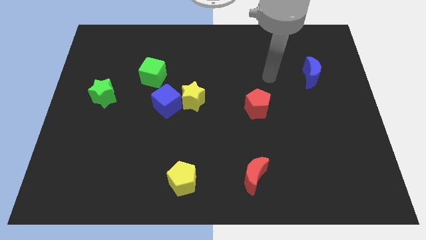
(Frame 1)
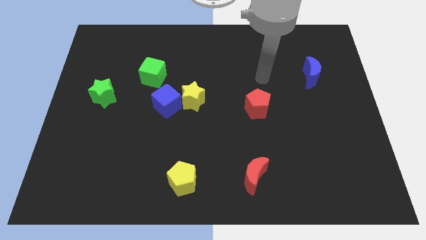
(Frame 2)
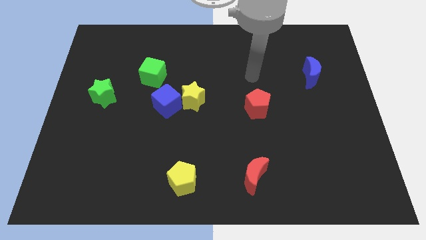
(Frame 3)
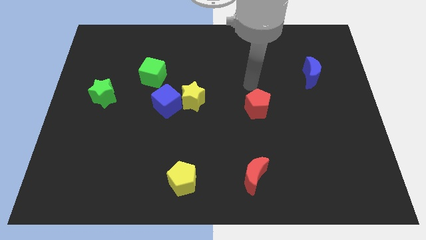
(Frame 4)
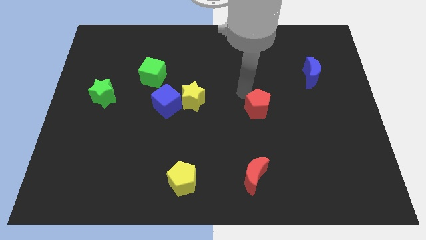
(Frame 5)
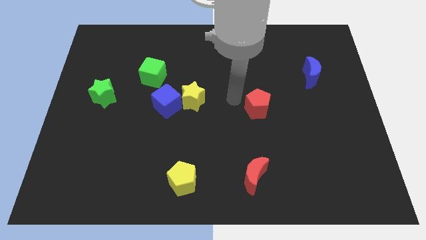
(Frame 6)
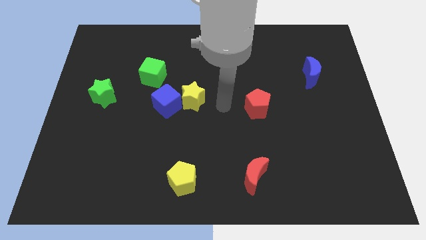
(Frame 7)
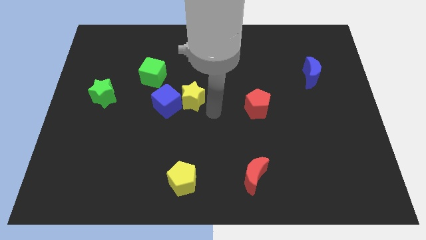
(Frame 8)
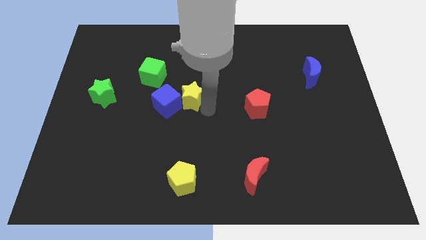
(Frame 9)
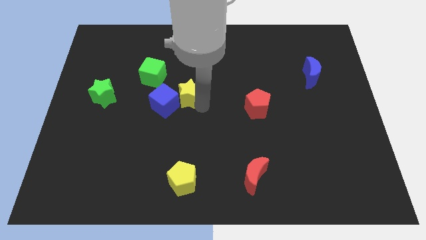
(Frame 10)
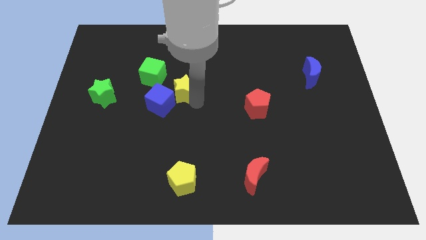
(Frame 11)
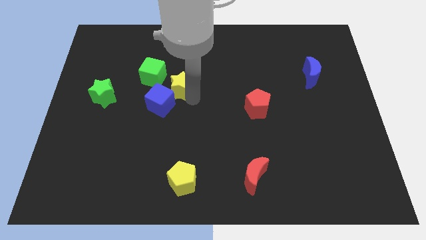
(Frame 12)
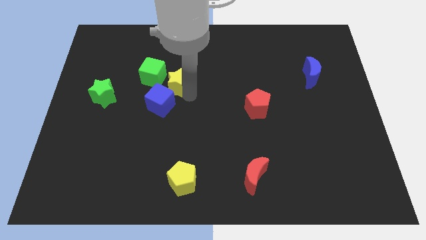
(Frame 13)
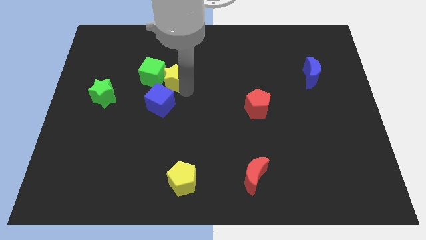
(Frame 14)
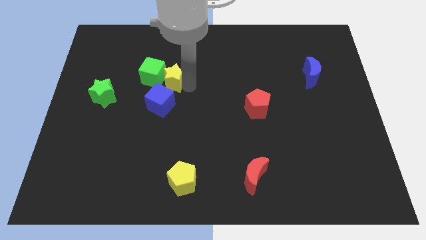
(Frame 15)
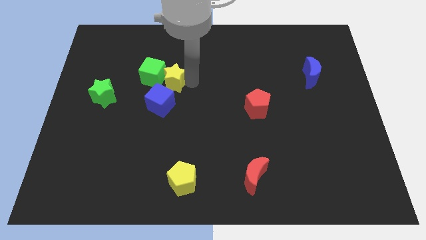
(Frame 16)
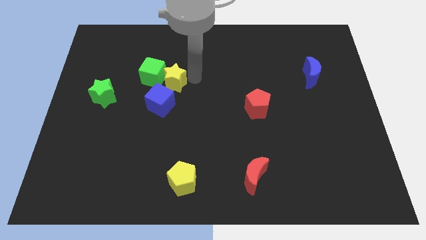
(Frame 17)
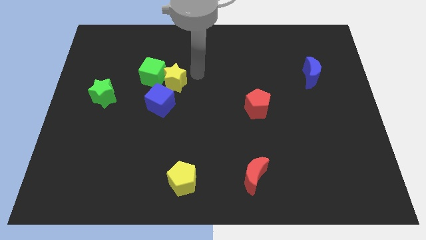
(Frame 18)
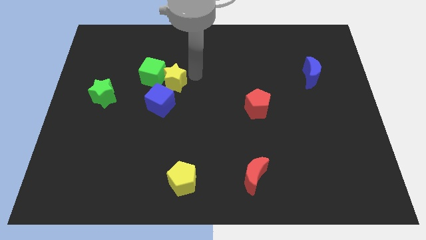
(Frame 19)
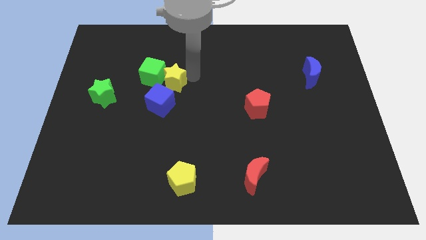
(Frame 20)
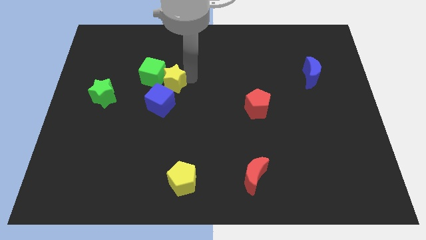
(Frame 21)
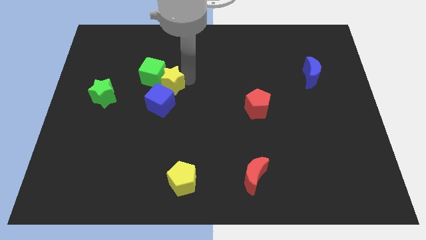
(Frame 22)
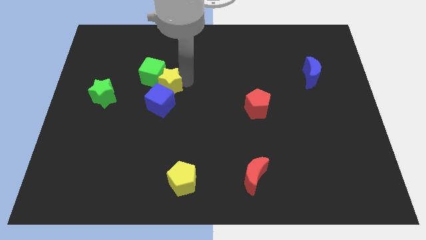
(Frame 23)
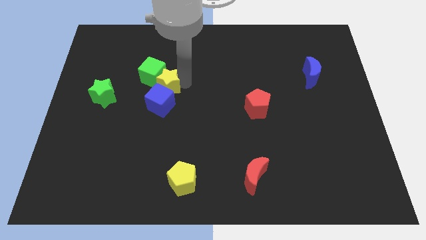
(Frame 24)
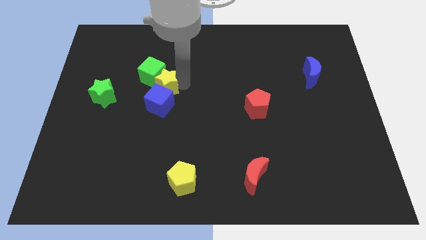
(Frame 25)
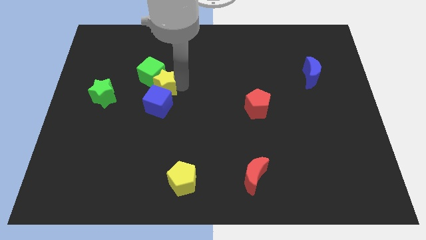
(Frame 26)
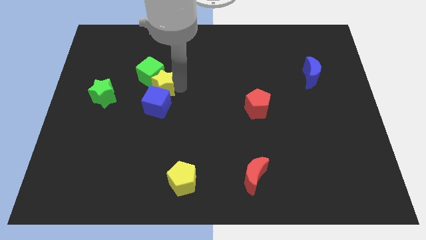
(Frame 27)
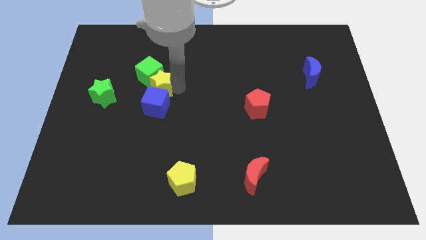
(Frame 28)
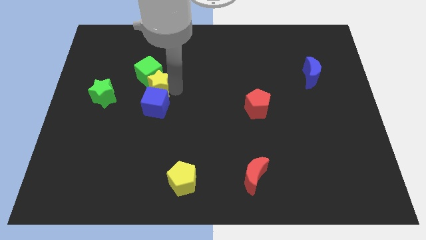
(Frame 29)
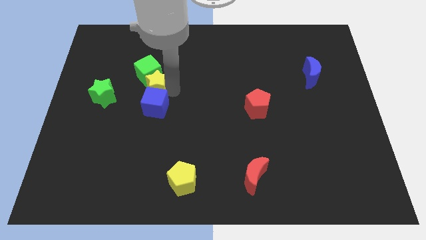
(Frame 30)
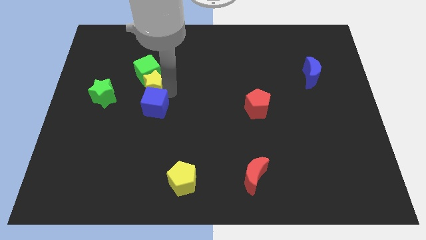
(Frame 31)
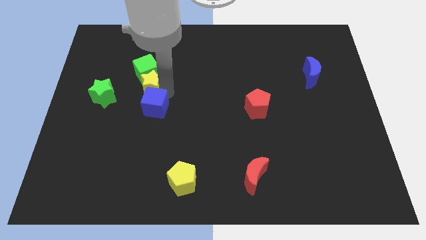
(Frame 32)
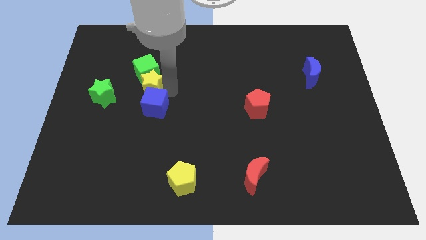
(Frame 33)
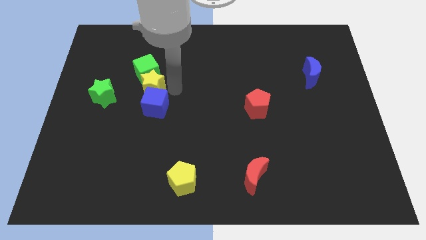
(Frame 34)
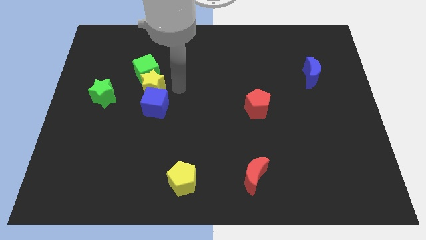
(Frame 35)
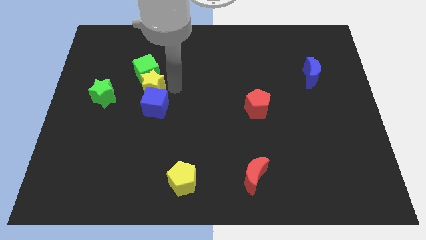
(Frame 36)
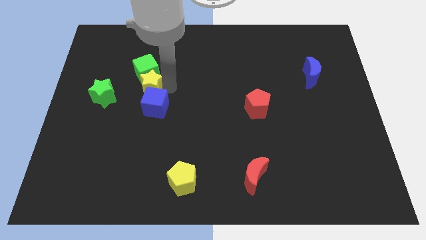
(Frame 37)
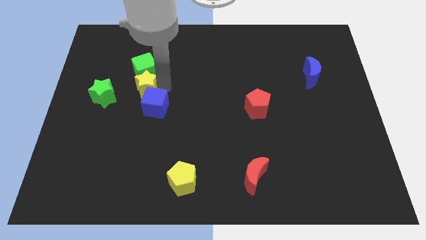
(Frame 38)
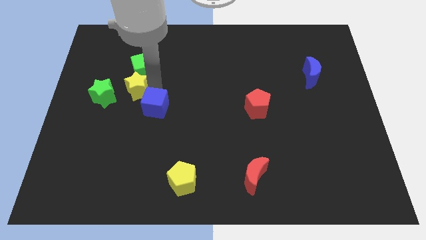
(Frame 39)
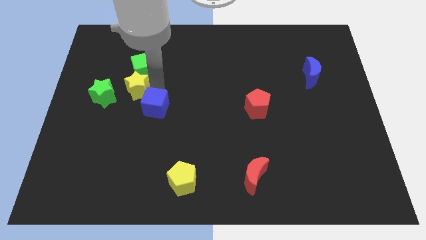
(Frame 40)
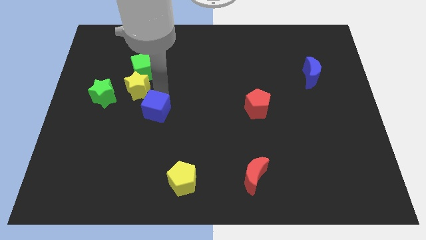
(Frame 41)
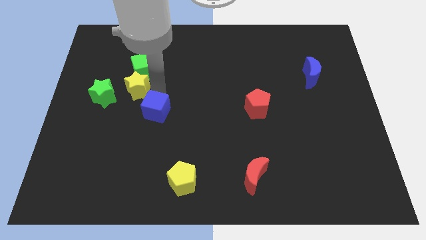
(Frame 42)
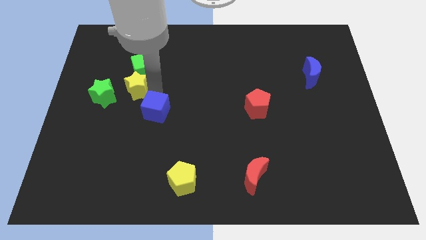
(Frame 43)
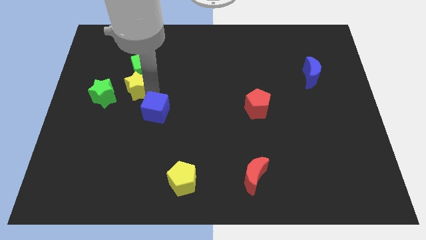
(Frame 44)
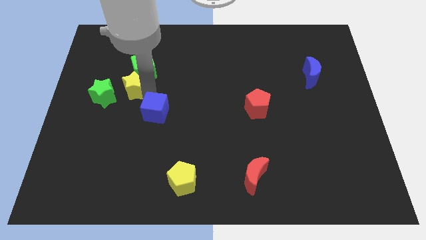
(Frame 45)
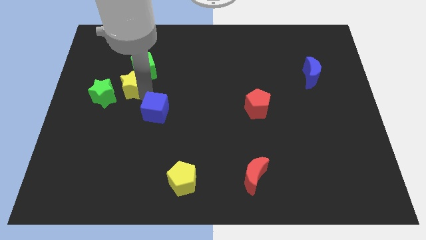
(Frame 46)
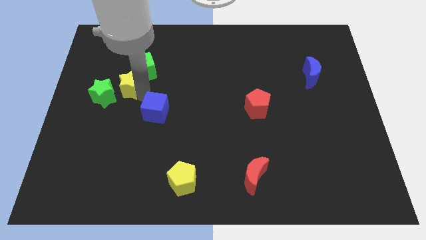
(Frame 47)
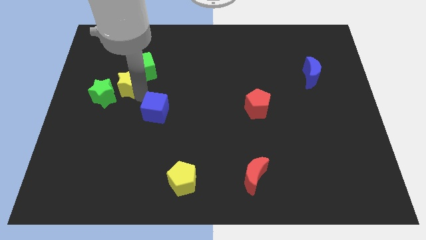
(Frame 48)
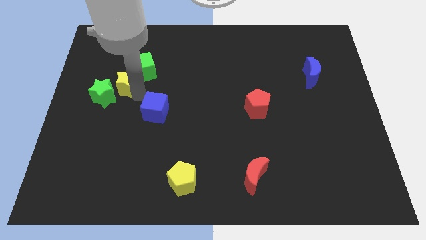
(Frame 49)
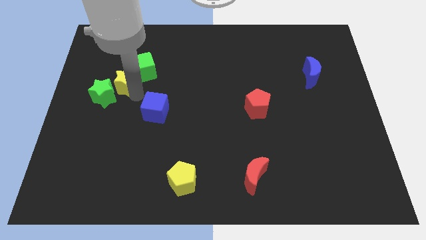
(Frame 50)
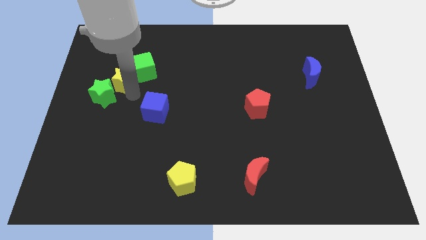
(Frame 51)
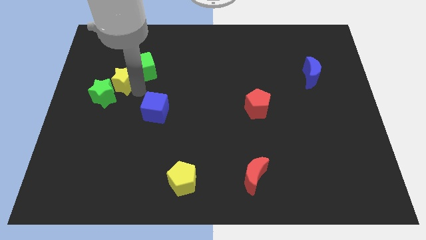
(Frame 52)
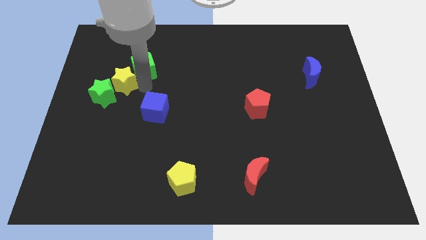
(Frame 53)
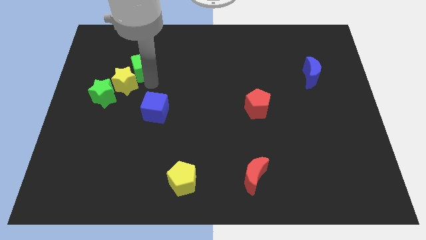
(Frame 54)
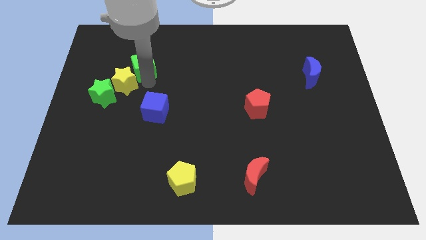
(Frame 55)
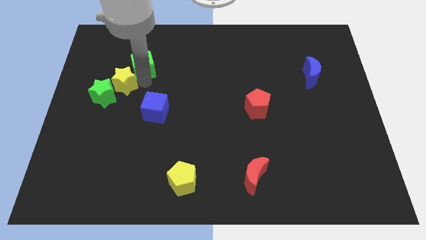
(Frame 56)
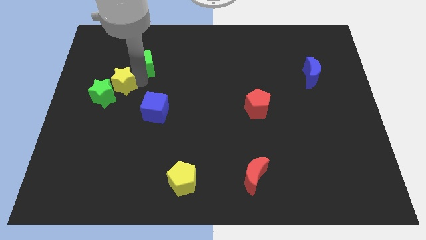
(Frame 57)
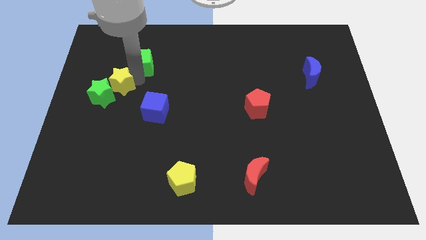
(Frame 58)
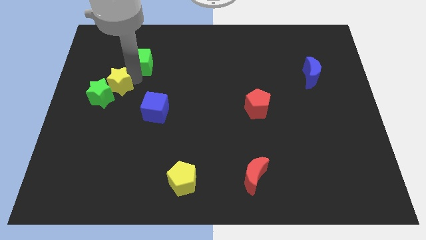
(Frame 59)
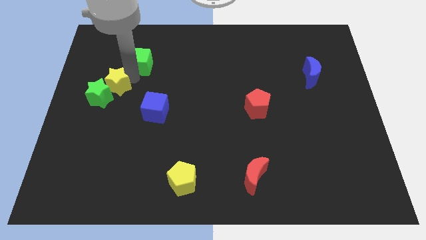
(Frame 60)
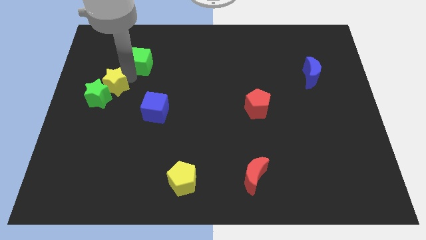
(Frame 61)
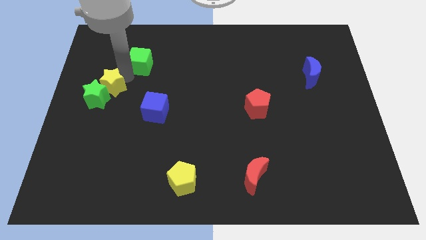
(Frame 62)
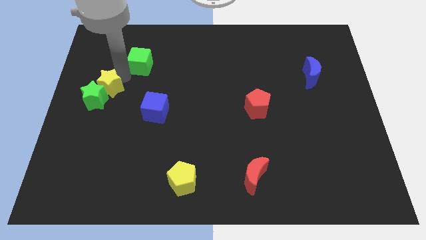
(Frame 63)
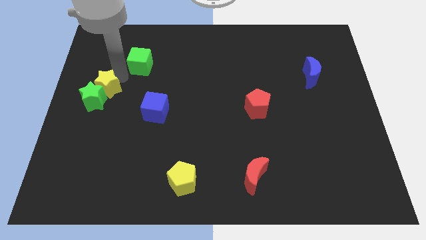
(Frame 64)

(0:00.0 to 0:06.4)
slide the yellow star to the left side
